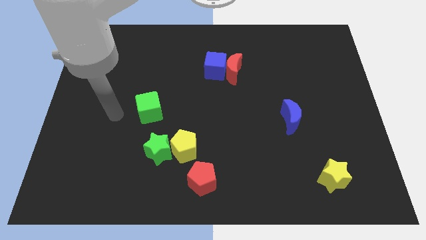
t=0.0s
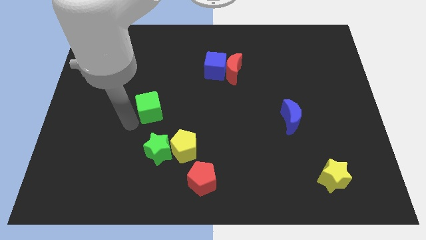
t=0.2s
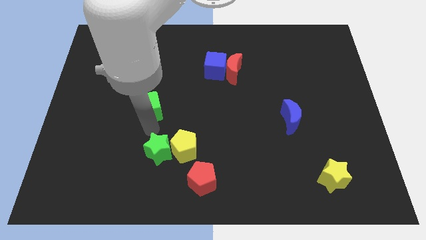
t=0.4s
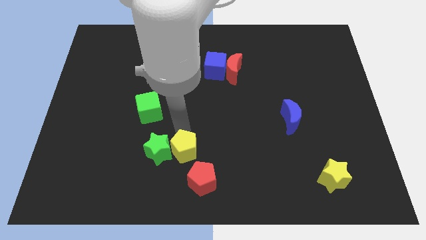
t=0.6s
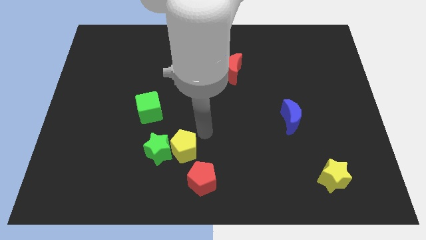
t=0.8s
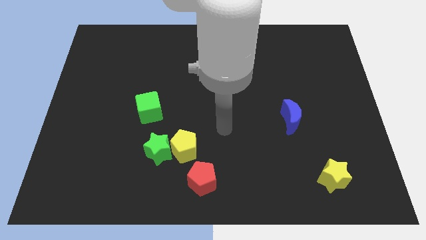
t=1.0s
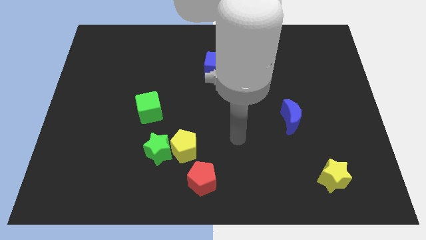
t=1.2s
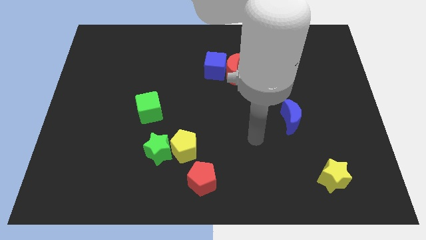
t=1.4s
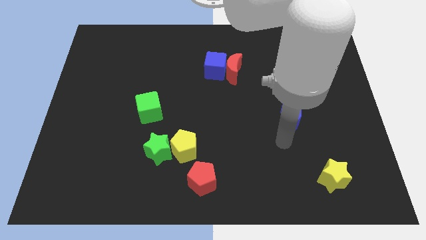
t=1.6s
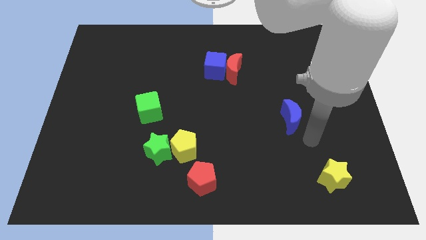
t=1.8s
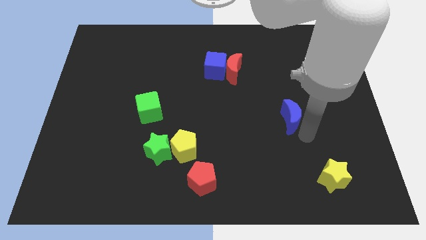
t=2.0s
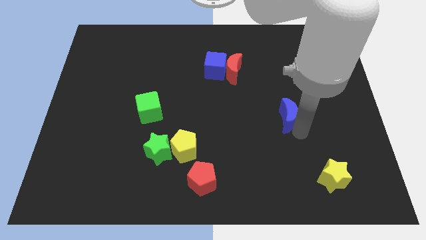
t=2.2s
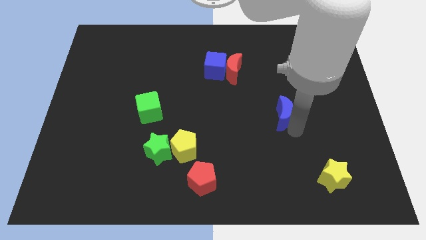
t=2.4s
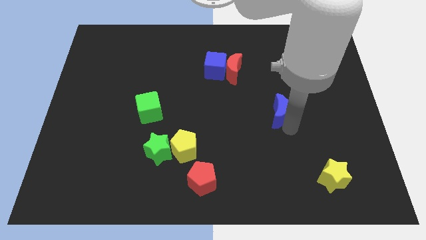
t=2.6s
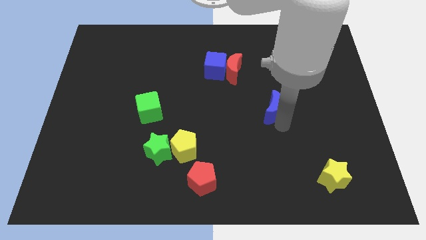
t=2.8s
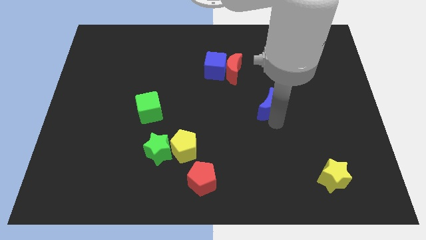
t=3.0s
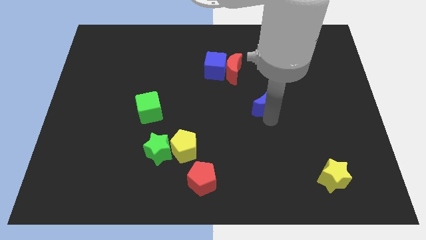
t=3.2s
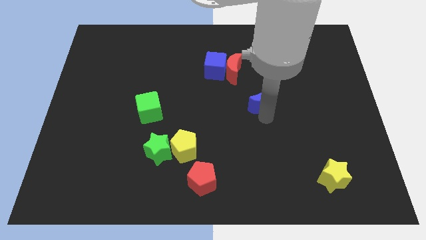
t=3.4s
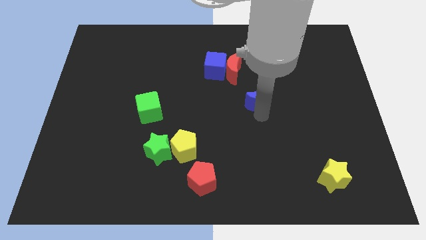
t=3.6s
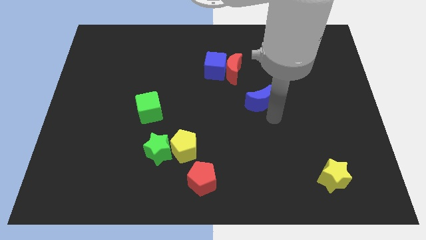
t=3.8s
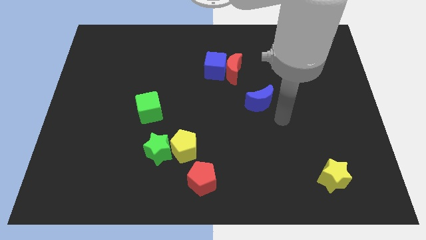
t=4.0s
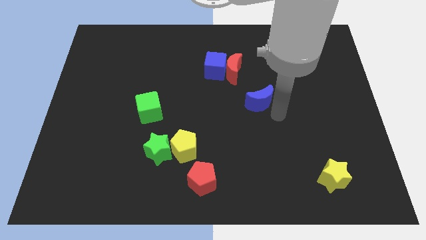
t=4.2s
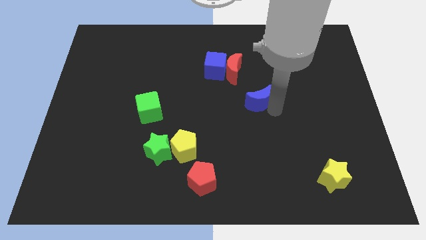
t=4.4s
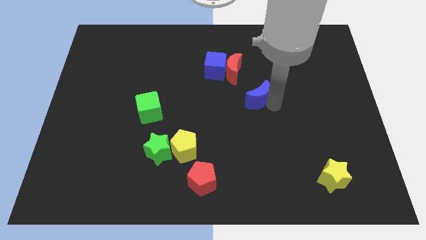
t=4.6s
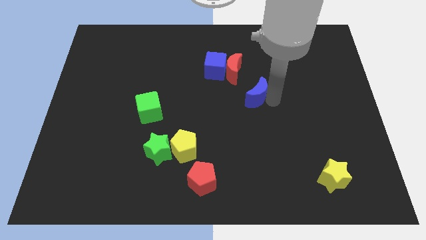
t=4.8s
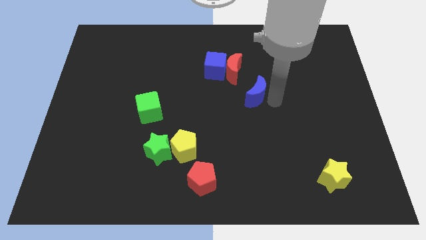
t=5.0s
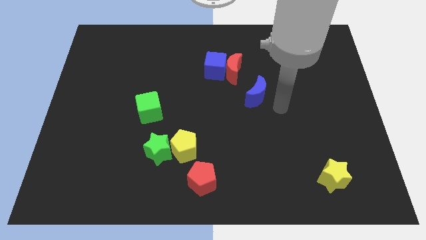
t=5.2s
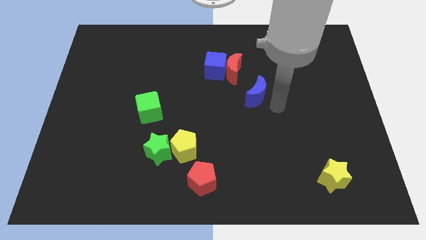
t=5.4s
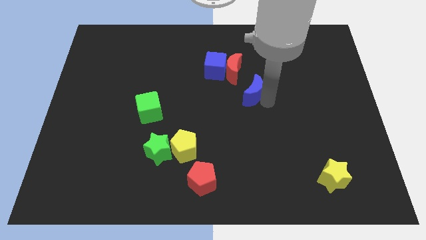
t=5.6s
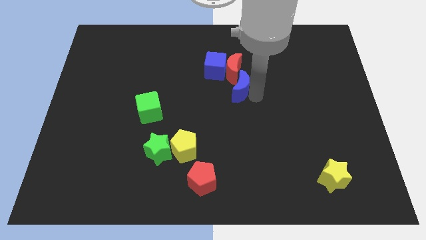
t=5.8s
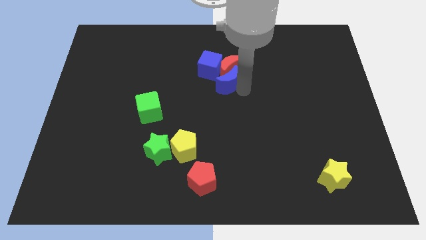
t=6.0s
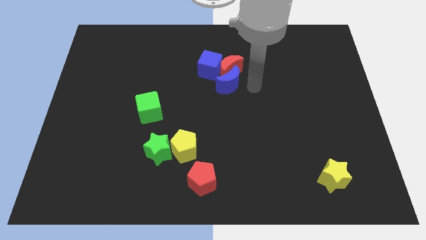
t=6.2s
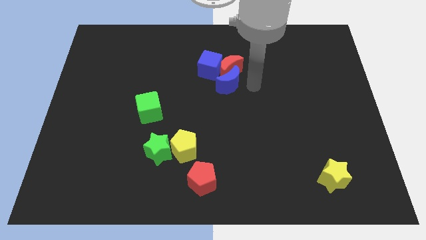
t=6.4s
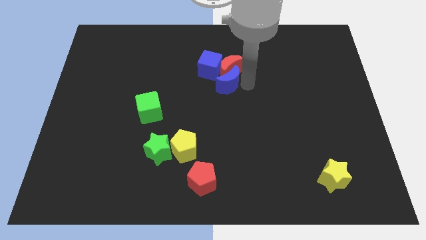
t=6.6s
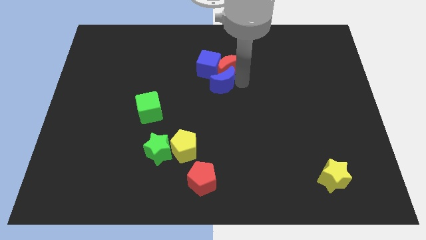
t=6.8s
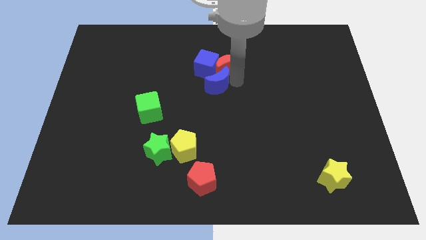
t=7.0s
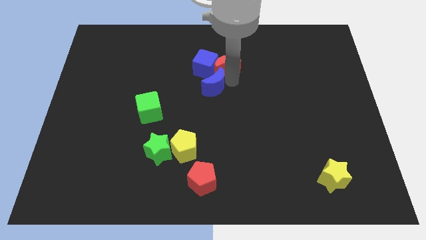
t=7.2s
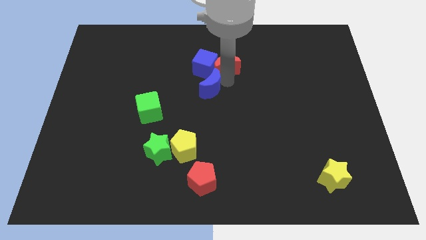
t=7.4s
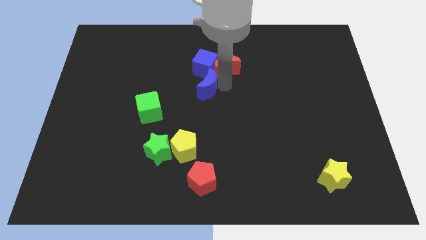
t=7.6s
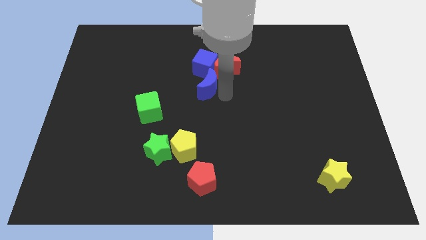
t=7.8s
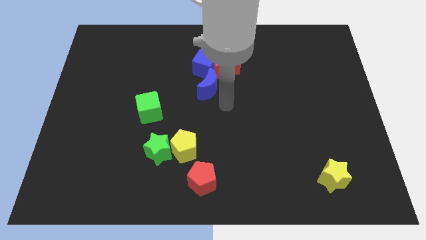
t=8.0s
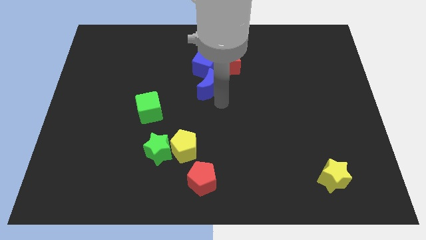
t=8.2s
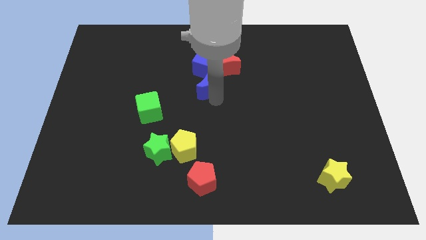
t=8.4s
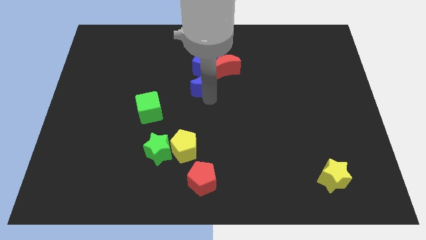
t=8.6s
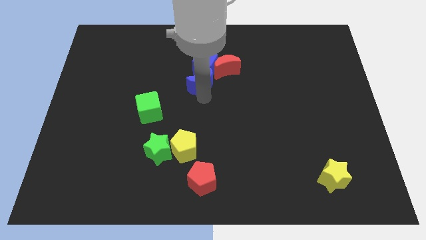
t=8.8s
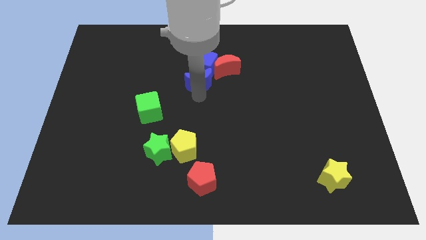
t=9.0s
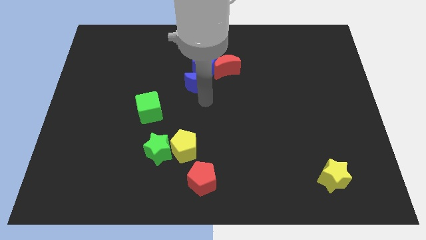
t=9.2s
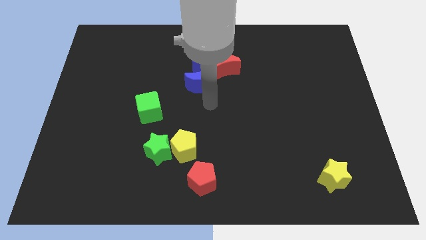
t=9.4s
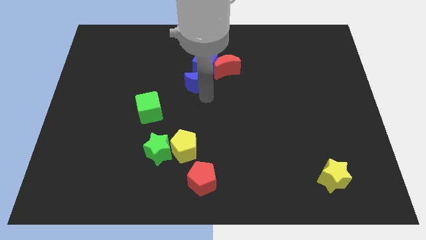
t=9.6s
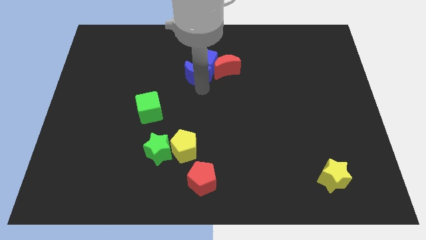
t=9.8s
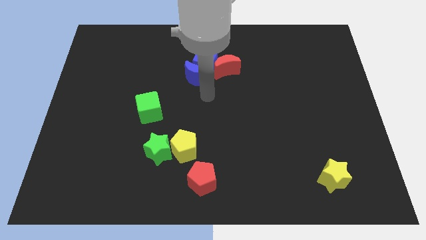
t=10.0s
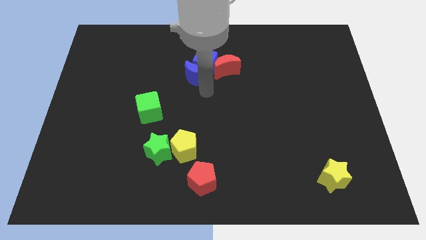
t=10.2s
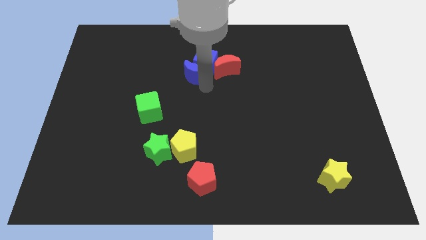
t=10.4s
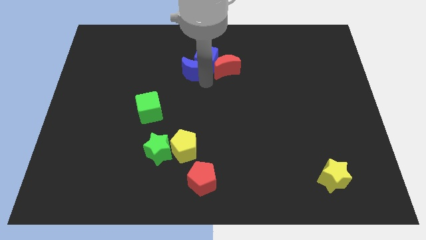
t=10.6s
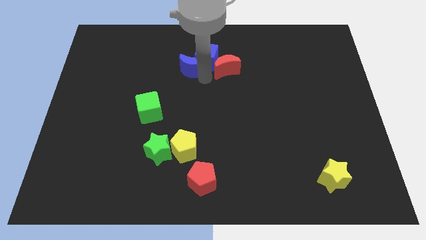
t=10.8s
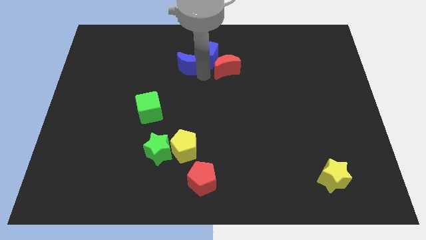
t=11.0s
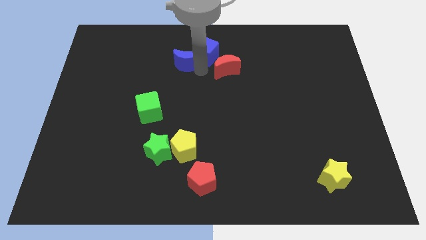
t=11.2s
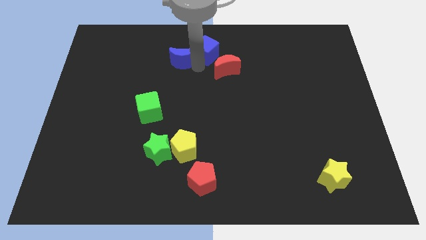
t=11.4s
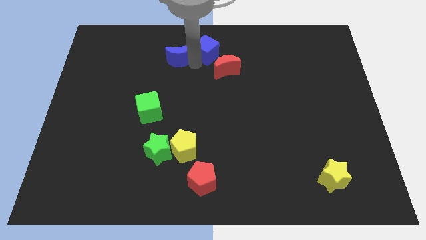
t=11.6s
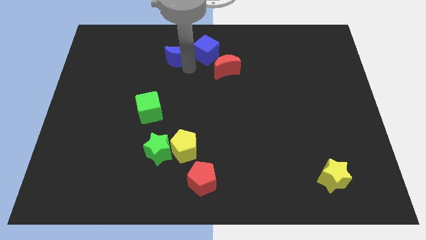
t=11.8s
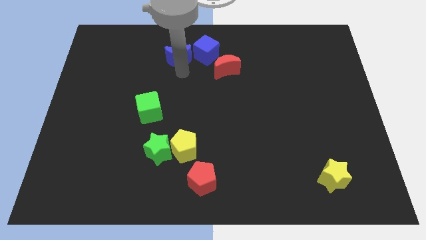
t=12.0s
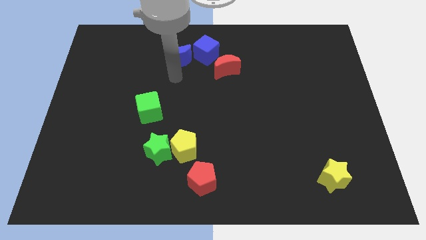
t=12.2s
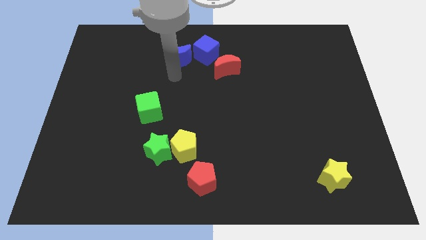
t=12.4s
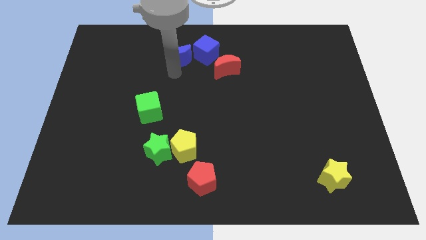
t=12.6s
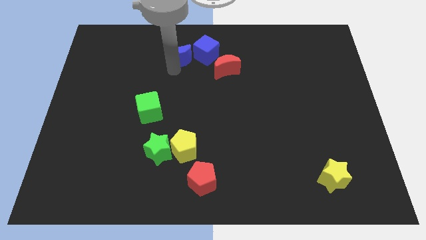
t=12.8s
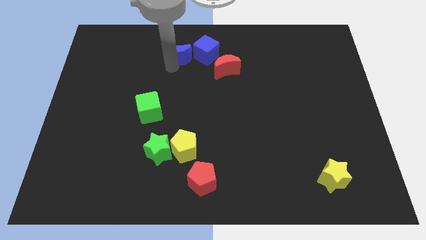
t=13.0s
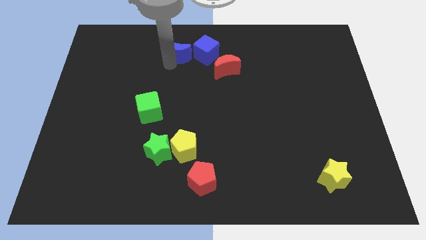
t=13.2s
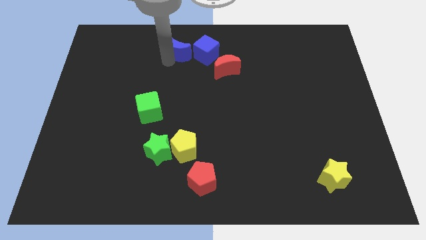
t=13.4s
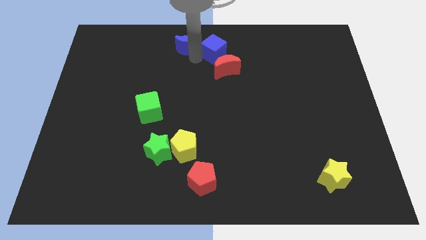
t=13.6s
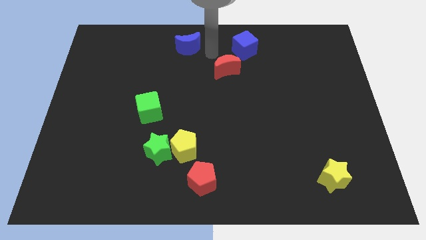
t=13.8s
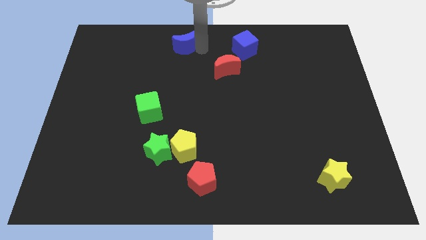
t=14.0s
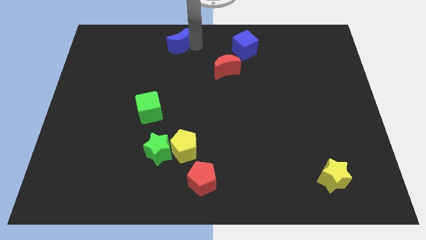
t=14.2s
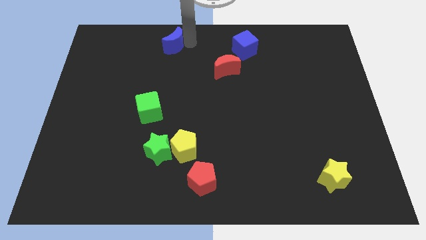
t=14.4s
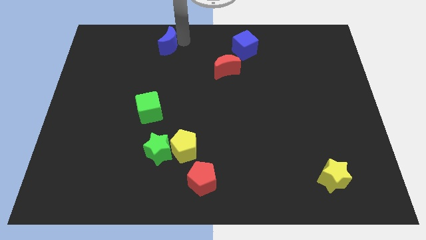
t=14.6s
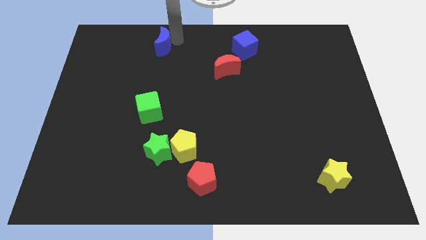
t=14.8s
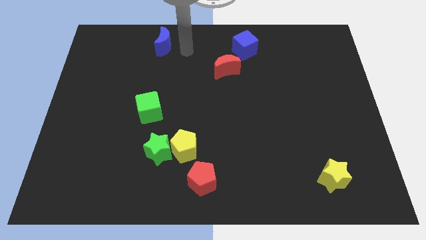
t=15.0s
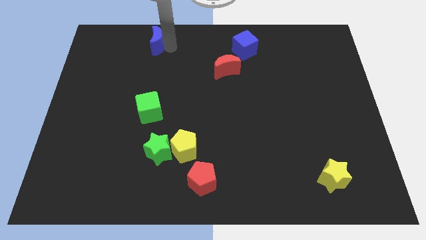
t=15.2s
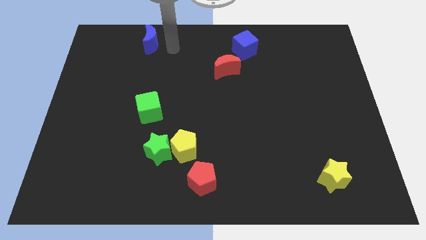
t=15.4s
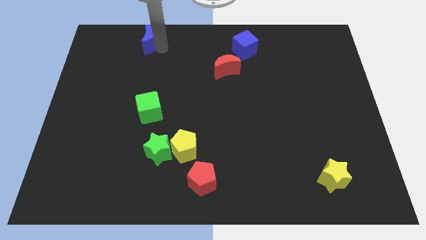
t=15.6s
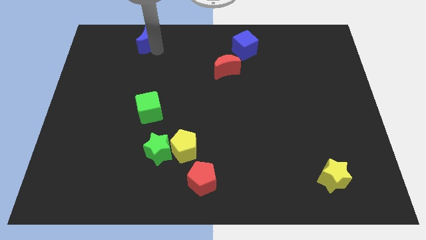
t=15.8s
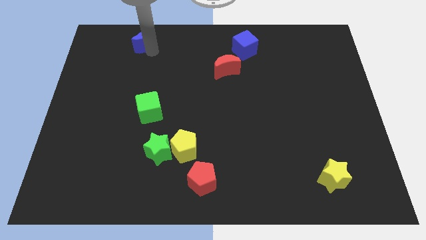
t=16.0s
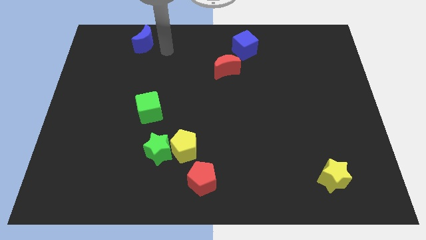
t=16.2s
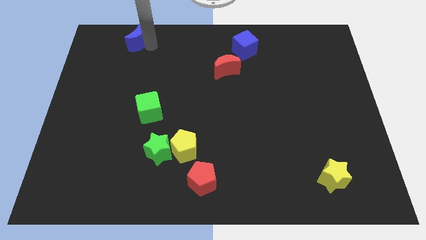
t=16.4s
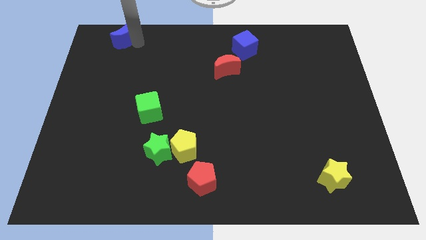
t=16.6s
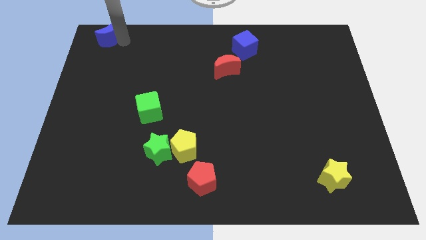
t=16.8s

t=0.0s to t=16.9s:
put the blue moon to the top left
